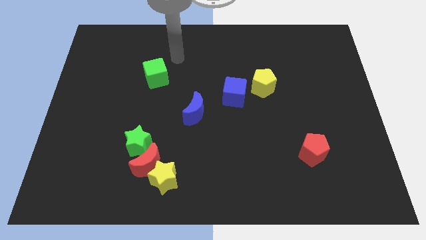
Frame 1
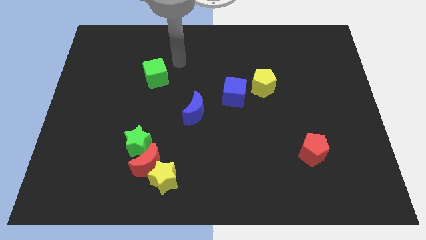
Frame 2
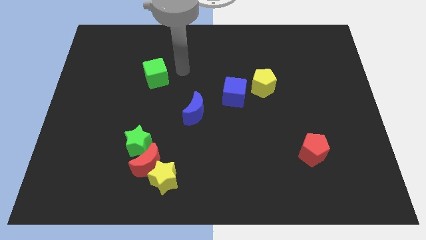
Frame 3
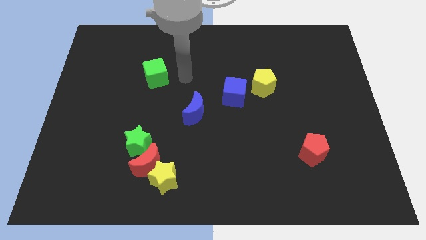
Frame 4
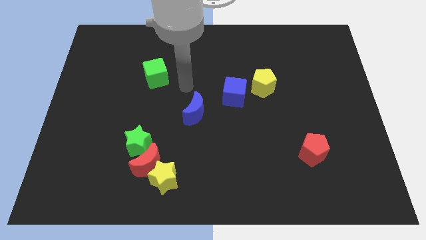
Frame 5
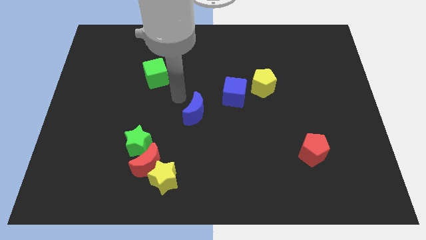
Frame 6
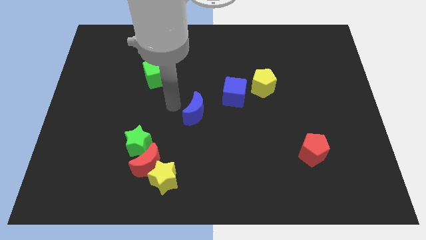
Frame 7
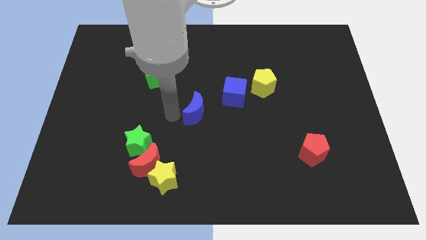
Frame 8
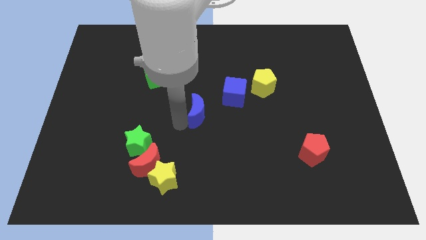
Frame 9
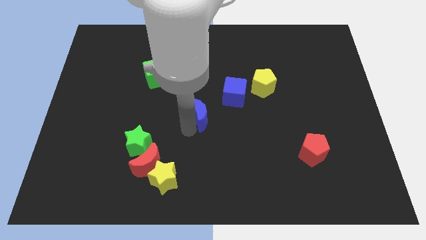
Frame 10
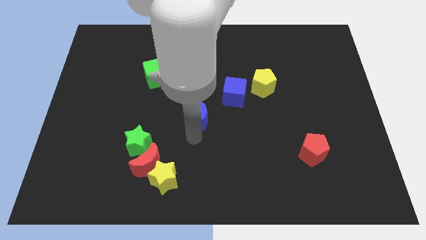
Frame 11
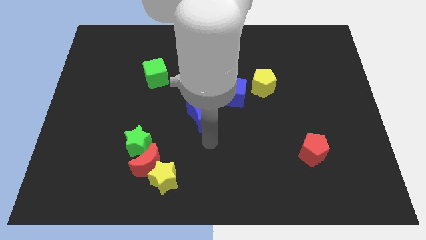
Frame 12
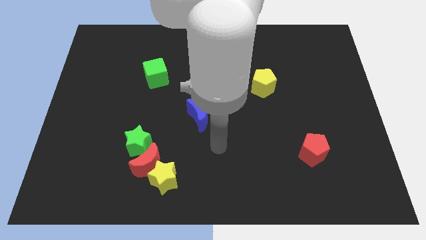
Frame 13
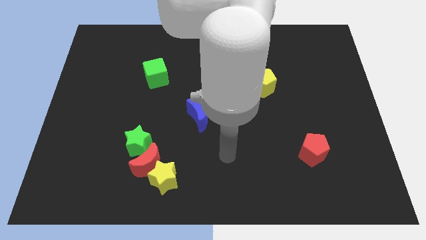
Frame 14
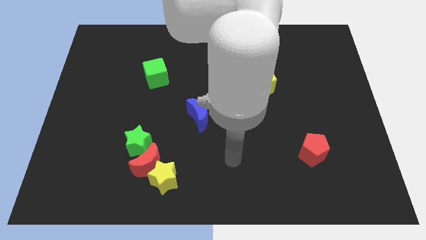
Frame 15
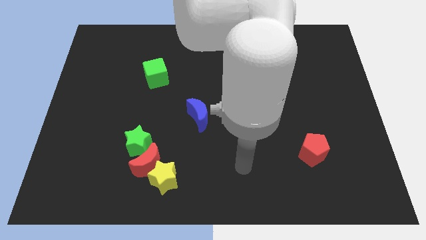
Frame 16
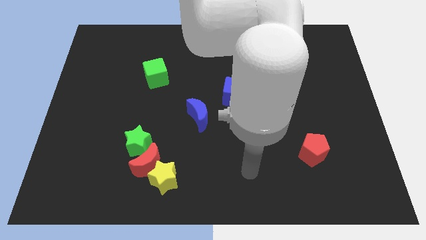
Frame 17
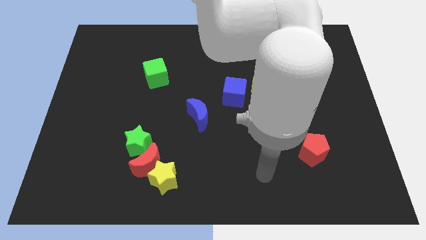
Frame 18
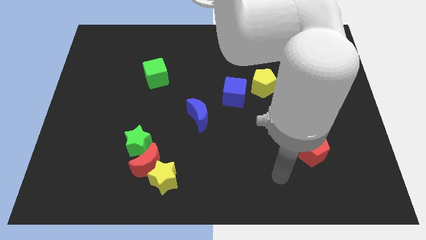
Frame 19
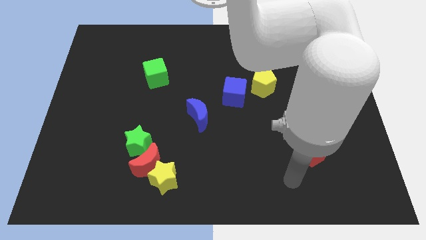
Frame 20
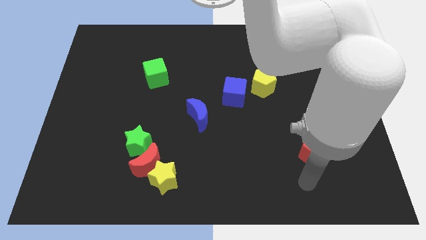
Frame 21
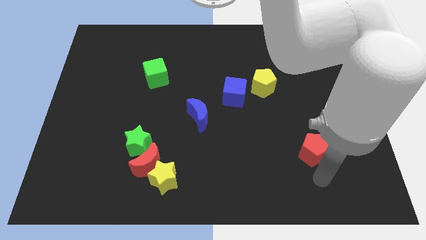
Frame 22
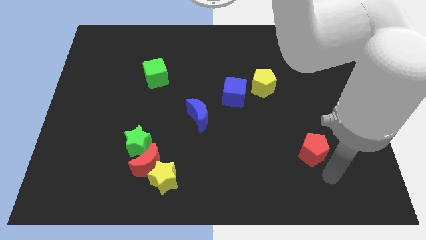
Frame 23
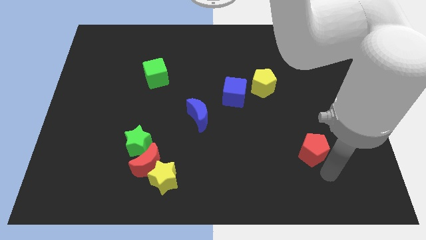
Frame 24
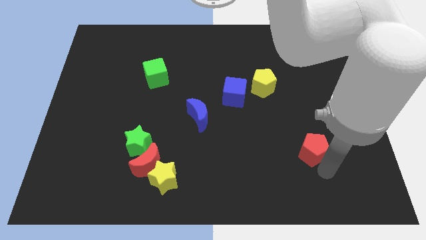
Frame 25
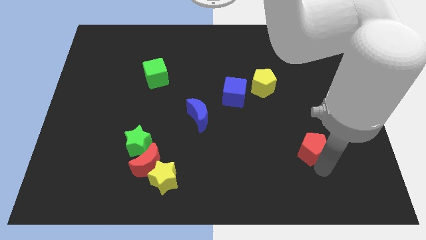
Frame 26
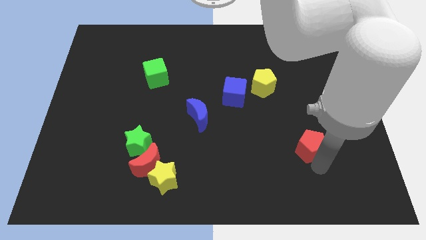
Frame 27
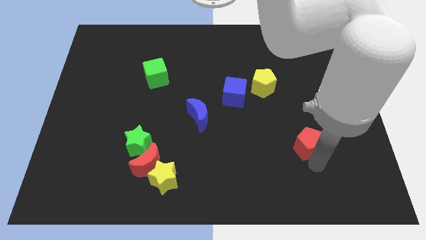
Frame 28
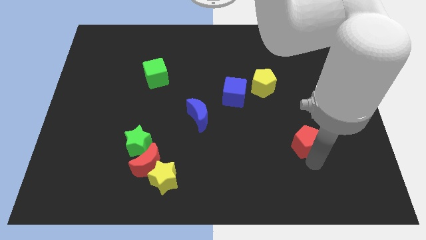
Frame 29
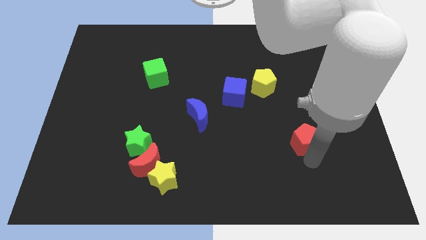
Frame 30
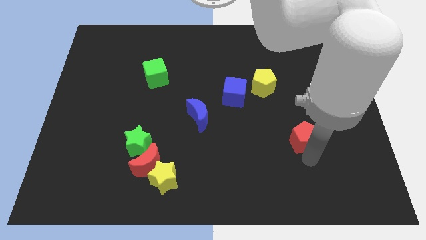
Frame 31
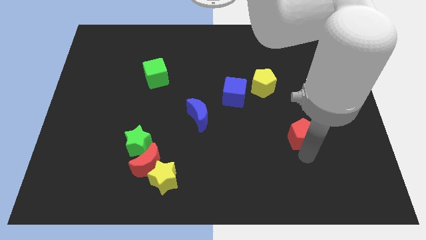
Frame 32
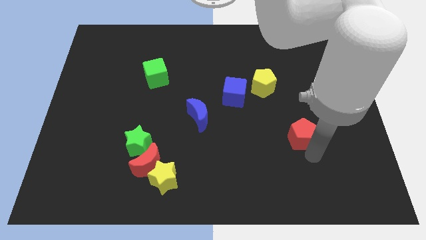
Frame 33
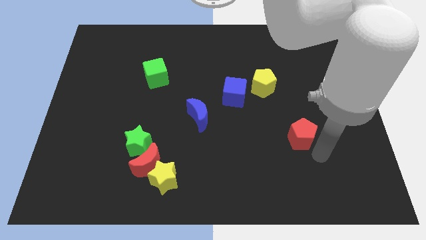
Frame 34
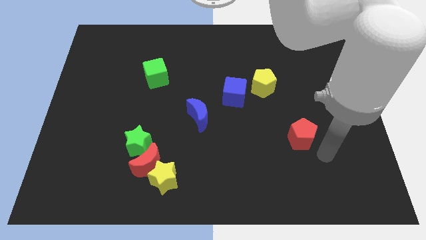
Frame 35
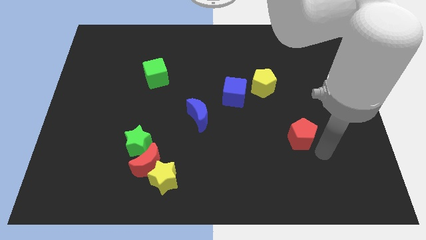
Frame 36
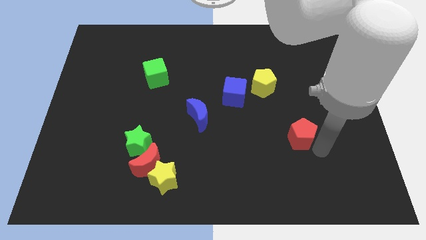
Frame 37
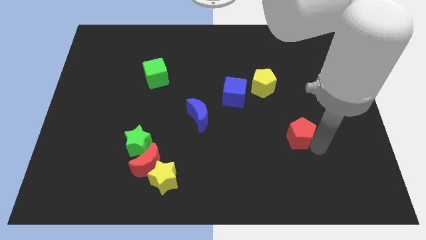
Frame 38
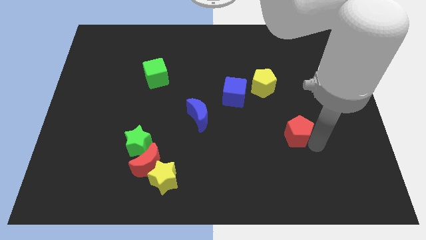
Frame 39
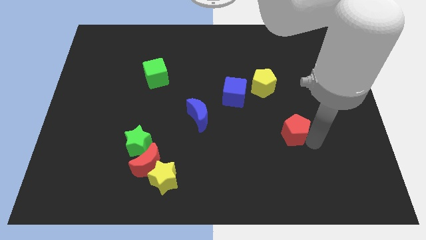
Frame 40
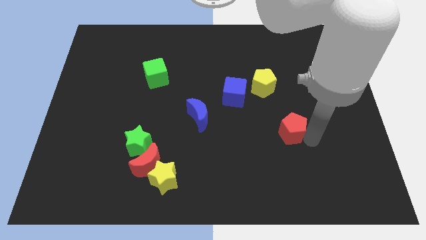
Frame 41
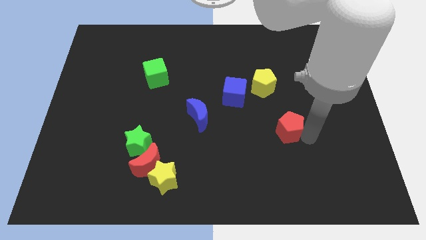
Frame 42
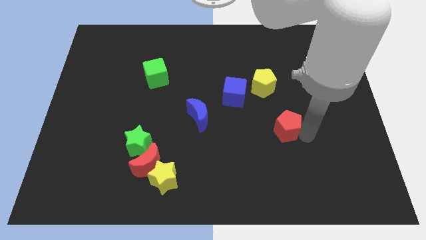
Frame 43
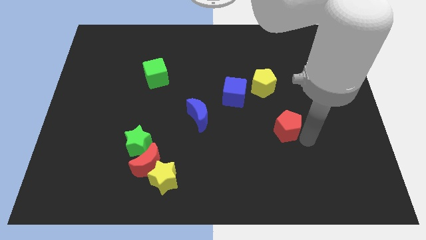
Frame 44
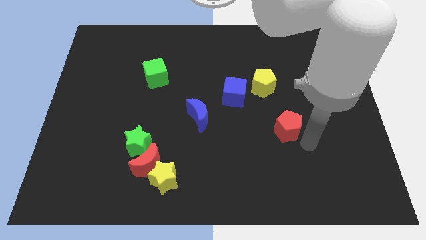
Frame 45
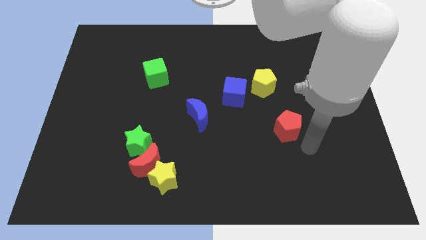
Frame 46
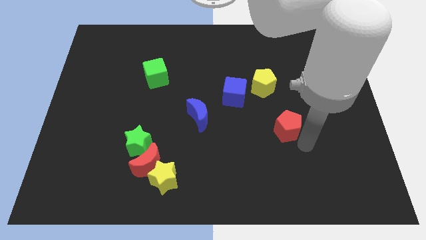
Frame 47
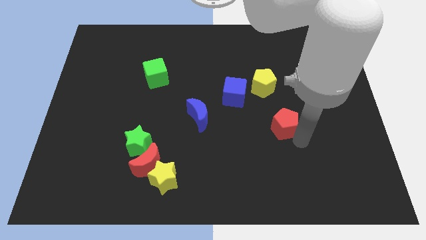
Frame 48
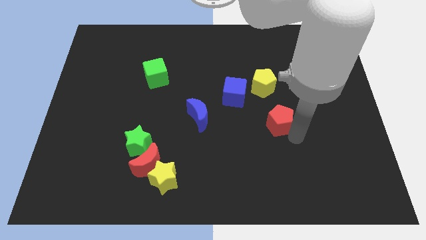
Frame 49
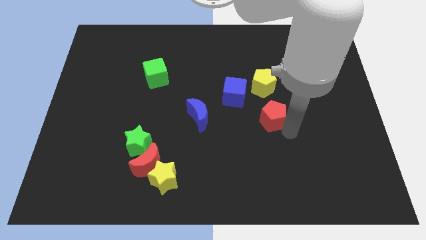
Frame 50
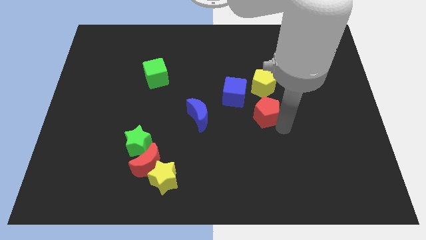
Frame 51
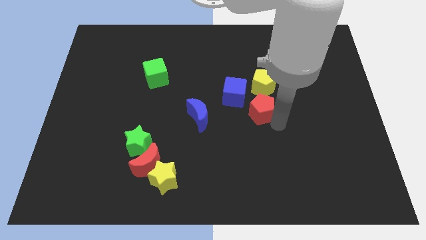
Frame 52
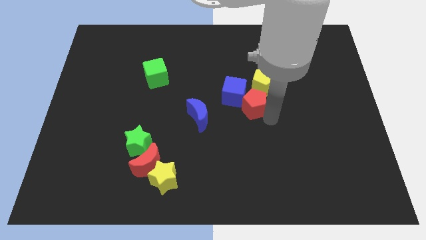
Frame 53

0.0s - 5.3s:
push the red pentagon to the blue cube

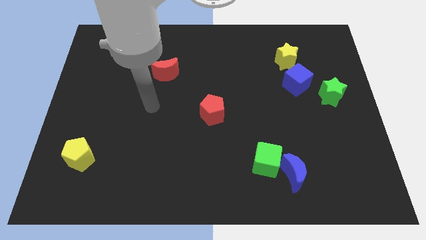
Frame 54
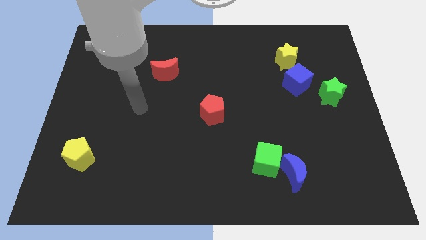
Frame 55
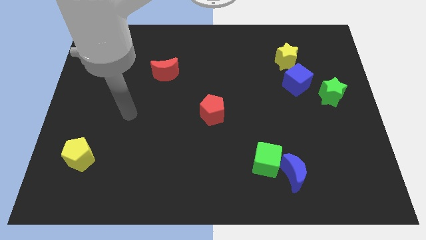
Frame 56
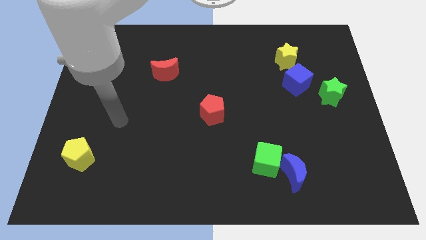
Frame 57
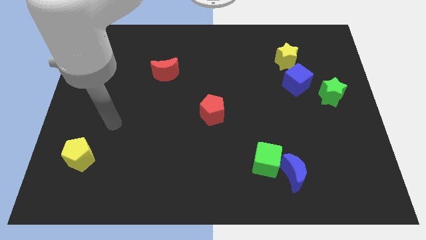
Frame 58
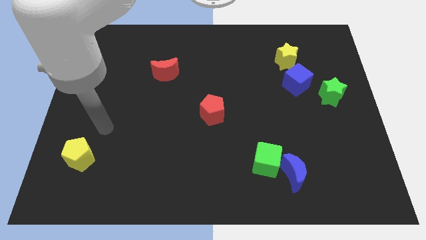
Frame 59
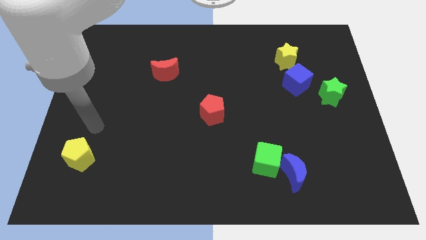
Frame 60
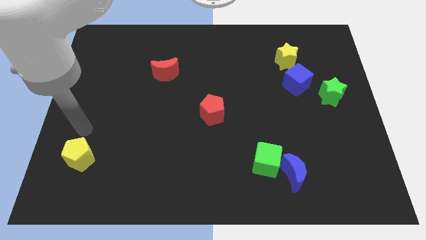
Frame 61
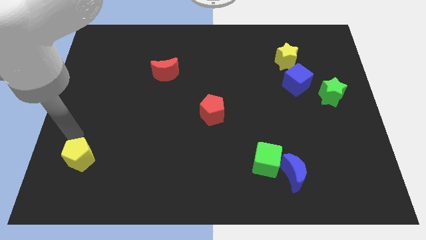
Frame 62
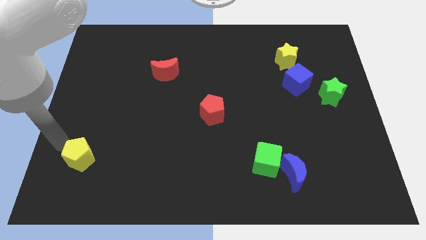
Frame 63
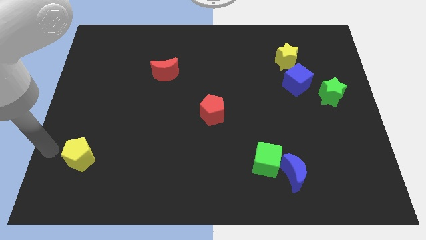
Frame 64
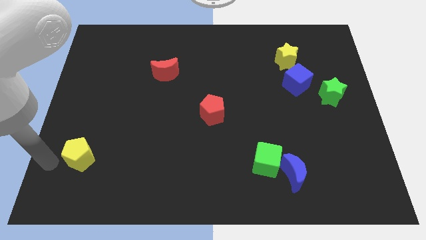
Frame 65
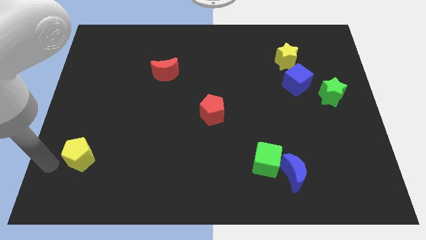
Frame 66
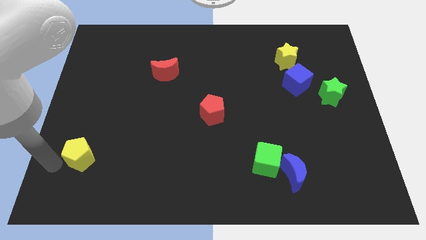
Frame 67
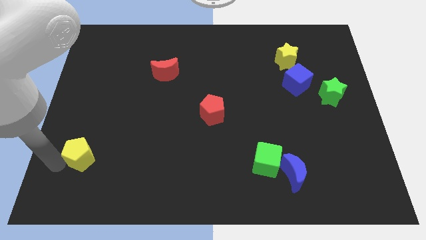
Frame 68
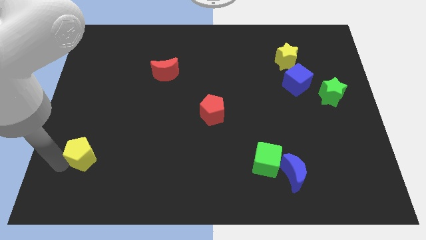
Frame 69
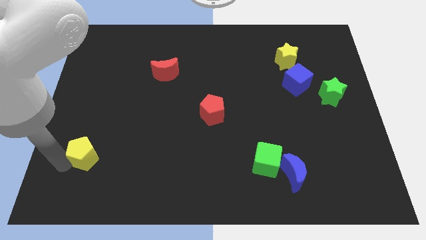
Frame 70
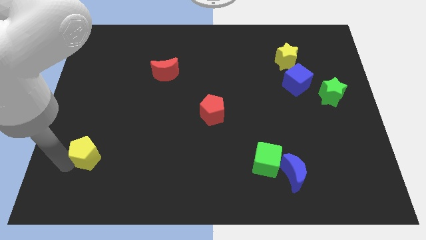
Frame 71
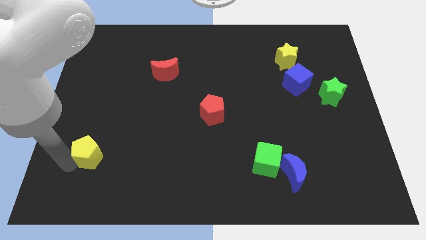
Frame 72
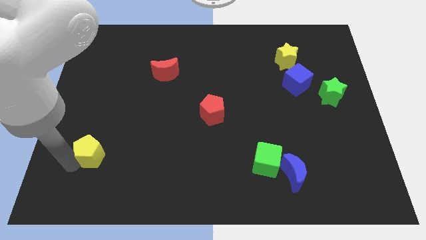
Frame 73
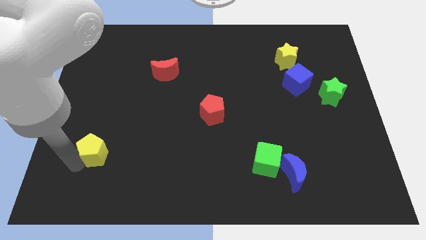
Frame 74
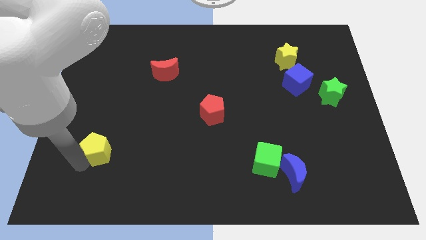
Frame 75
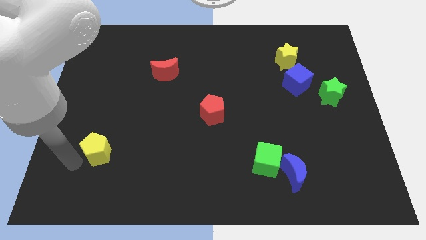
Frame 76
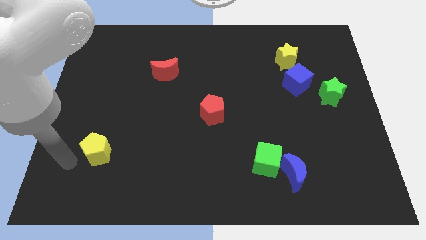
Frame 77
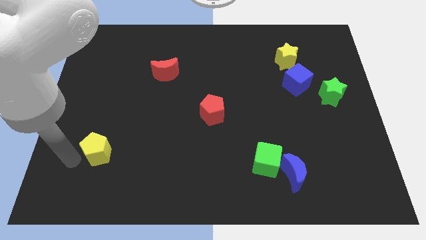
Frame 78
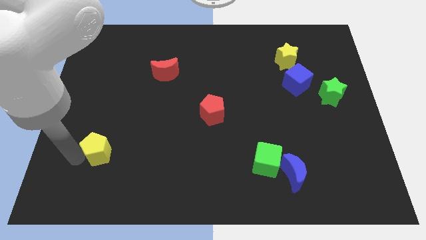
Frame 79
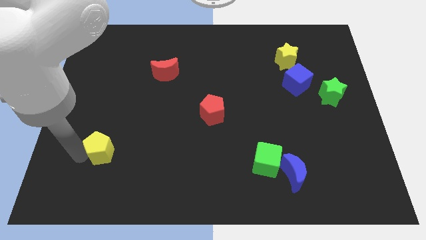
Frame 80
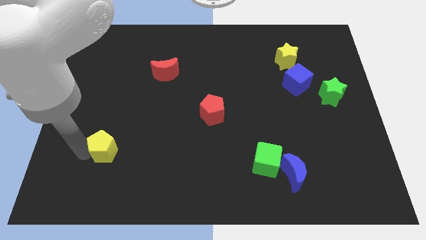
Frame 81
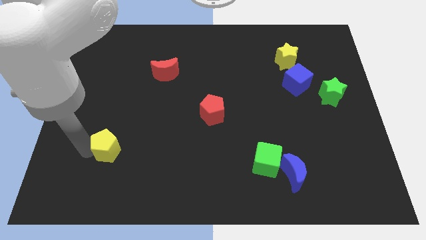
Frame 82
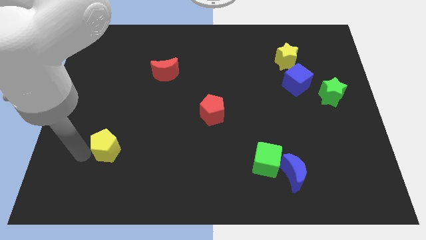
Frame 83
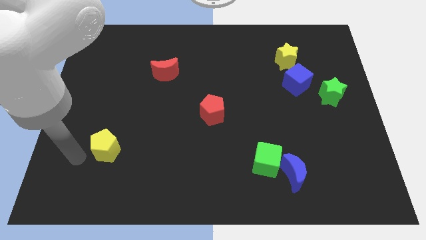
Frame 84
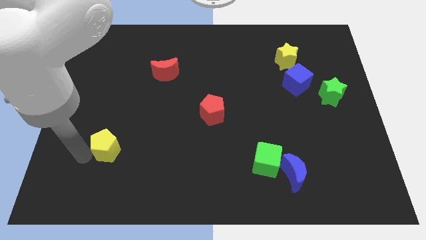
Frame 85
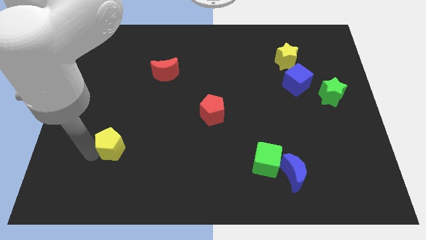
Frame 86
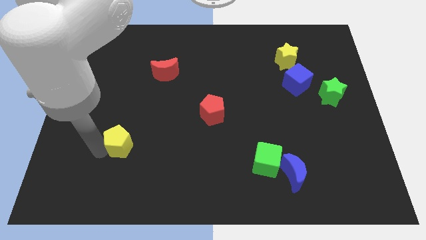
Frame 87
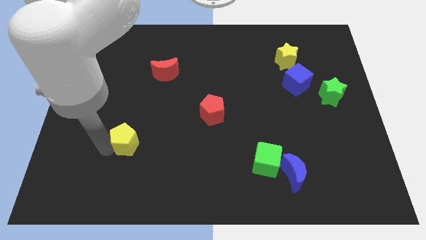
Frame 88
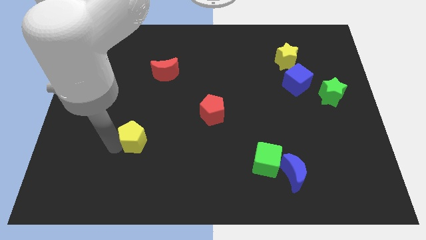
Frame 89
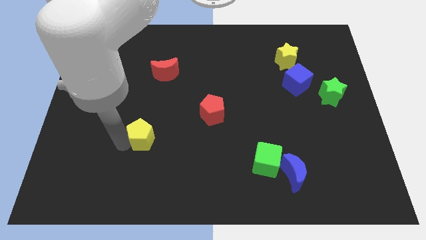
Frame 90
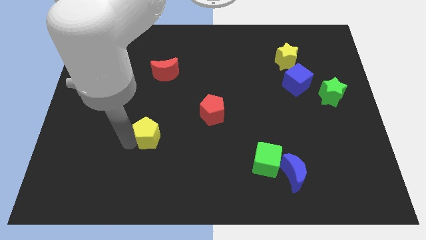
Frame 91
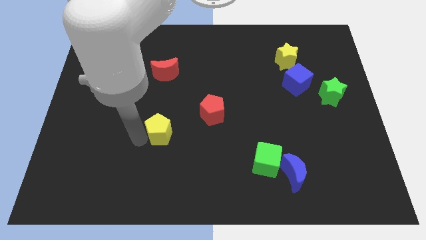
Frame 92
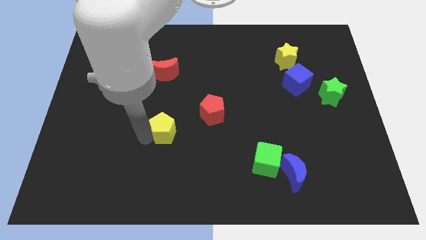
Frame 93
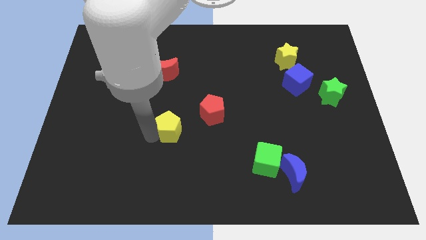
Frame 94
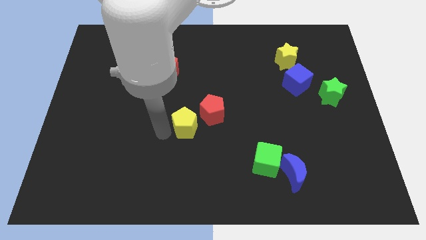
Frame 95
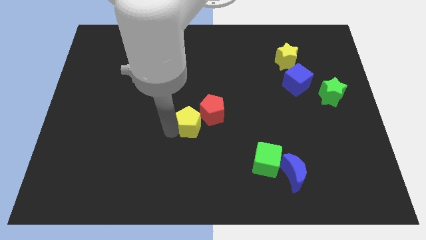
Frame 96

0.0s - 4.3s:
slide the yellow pentagon next to the red pentagon
